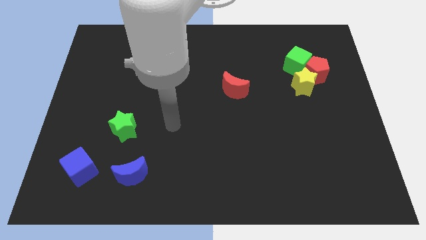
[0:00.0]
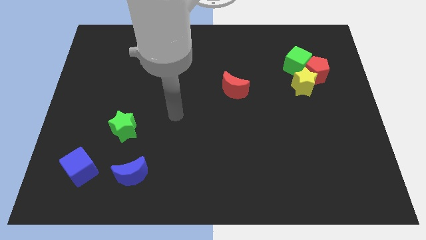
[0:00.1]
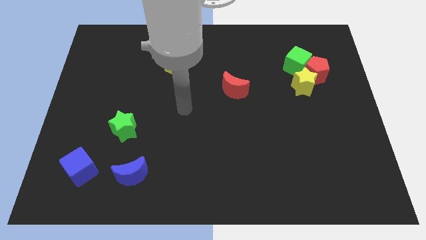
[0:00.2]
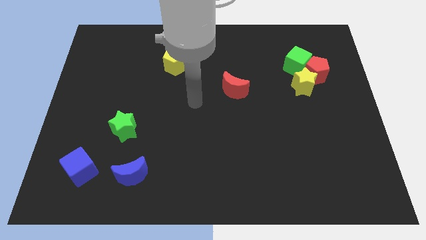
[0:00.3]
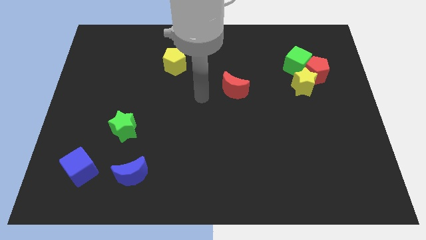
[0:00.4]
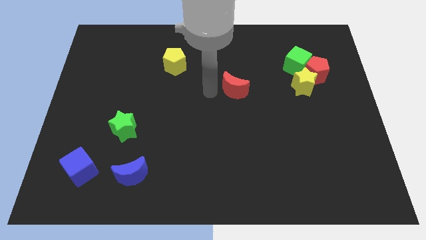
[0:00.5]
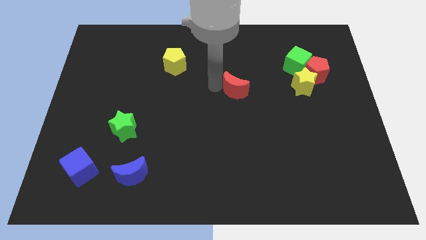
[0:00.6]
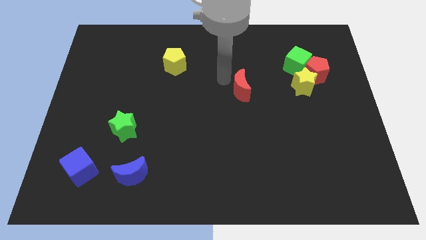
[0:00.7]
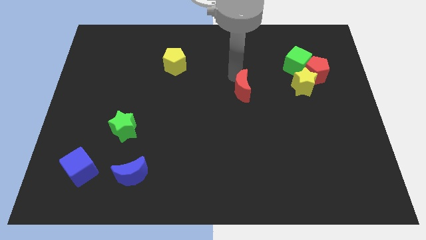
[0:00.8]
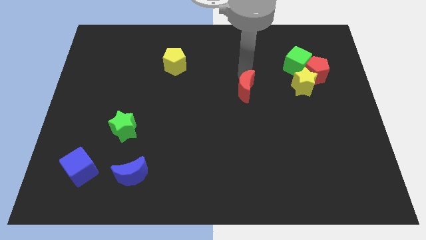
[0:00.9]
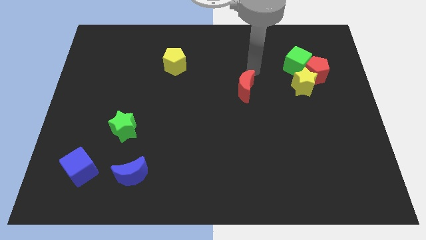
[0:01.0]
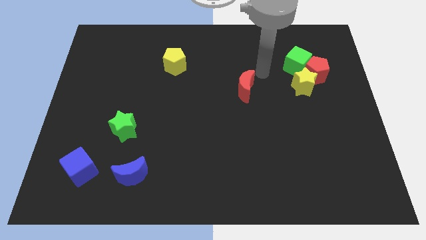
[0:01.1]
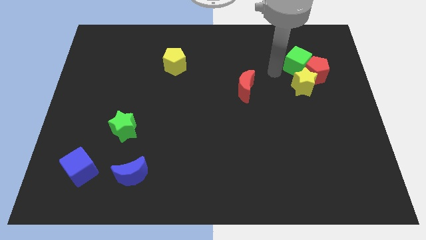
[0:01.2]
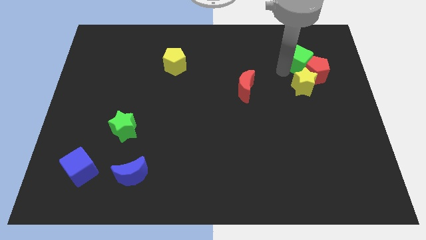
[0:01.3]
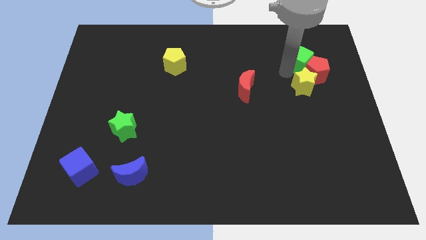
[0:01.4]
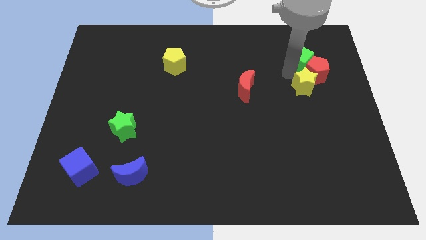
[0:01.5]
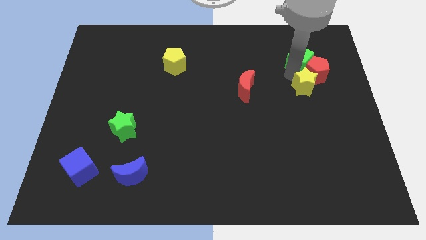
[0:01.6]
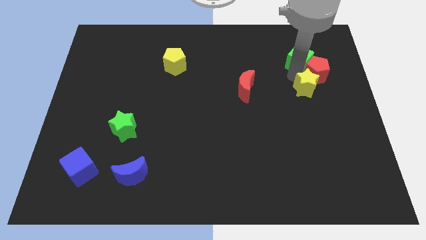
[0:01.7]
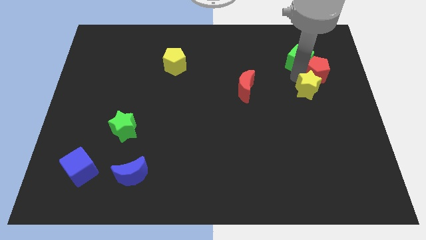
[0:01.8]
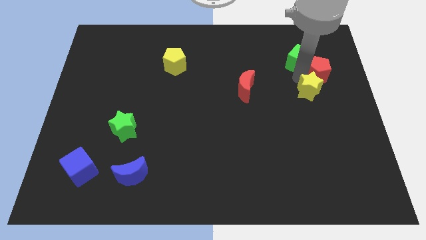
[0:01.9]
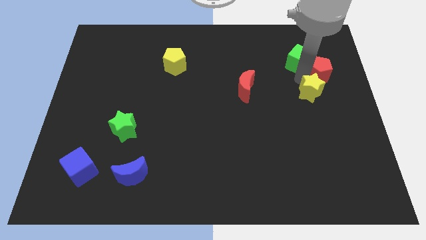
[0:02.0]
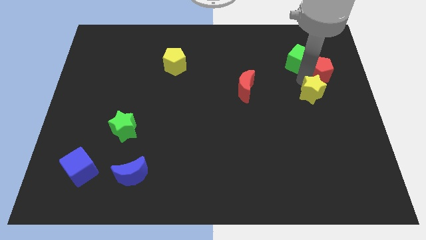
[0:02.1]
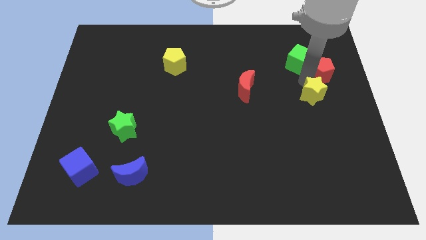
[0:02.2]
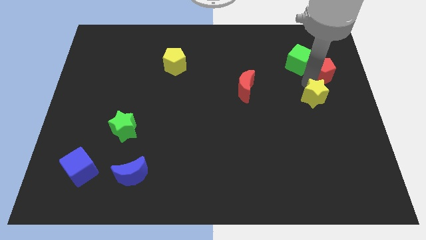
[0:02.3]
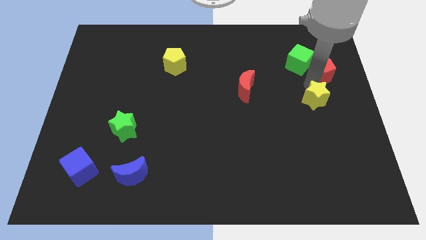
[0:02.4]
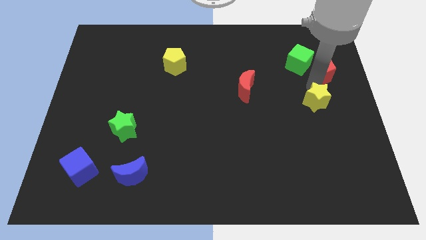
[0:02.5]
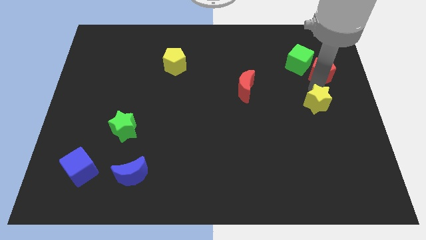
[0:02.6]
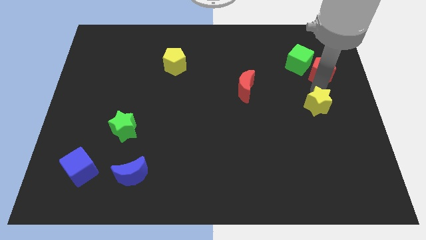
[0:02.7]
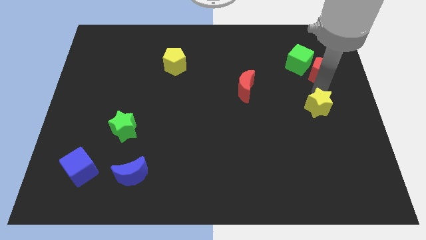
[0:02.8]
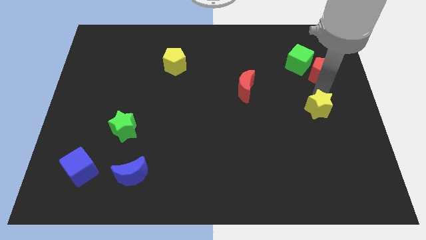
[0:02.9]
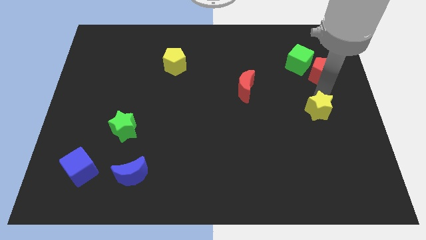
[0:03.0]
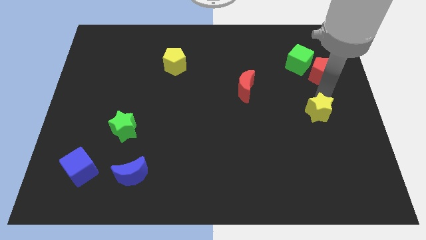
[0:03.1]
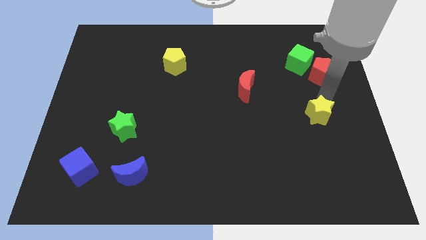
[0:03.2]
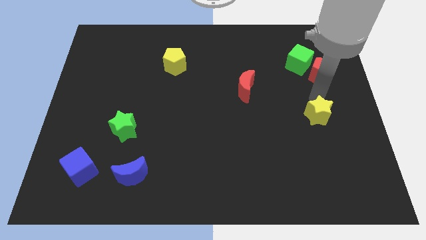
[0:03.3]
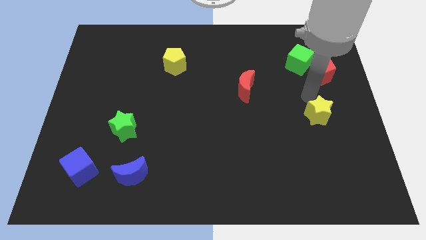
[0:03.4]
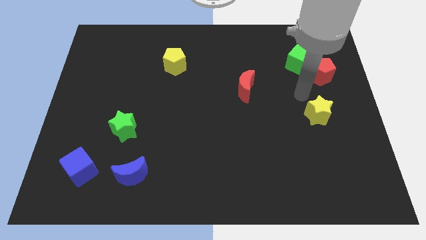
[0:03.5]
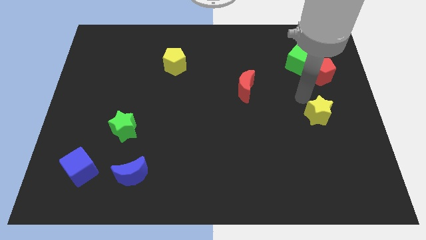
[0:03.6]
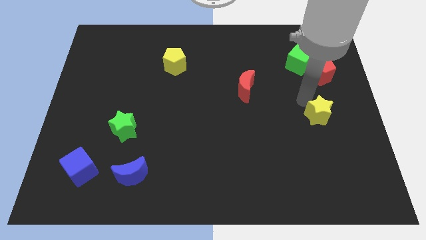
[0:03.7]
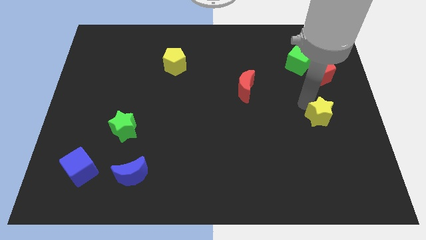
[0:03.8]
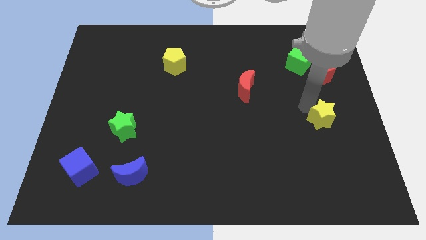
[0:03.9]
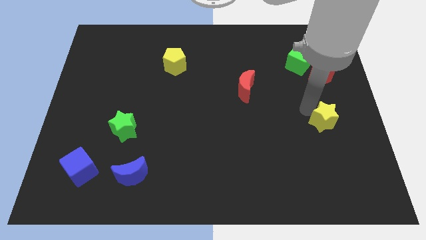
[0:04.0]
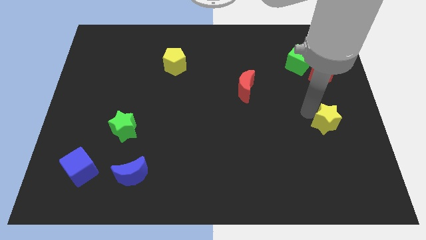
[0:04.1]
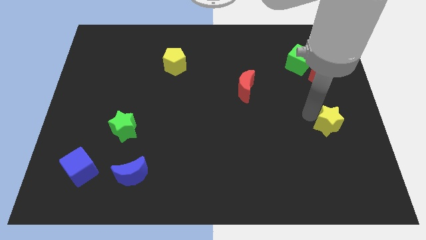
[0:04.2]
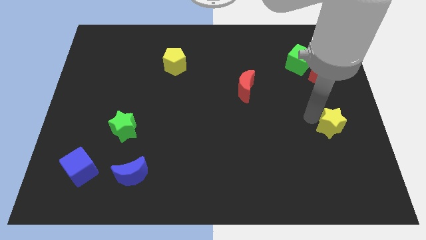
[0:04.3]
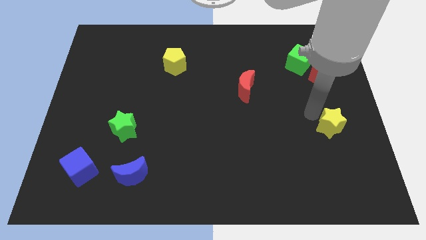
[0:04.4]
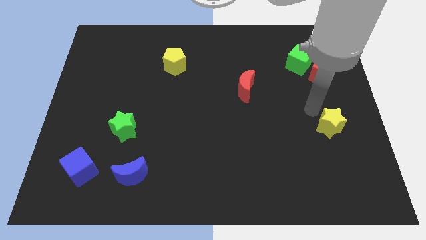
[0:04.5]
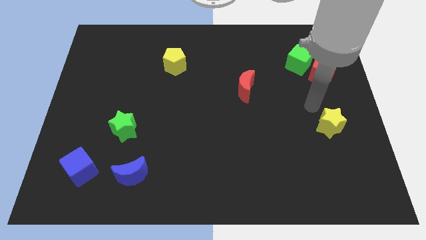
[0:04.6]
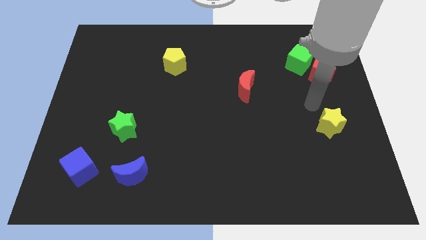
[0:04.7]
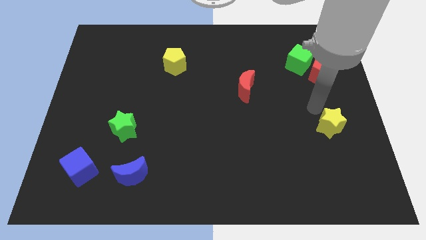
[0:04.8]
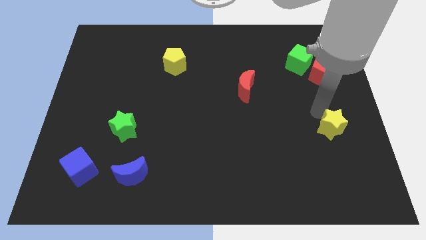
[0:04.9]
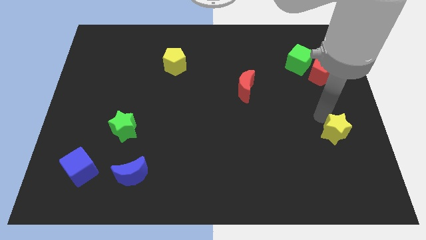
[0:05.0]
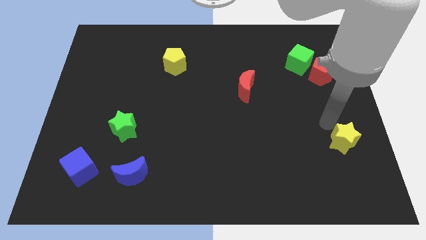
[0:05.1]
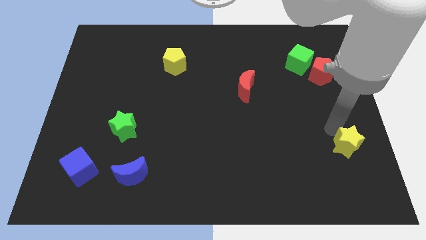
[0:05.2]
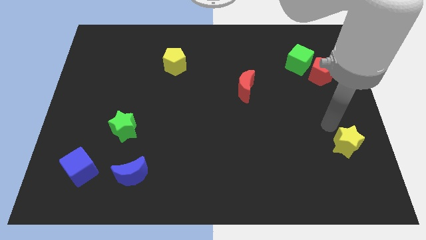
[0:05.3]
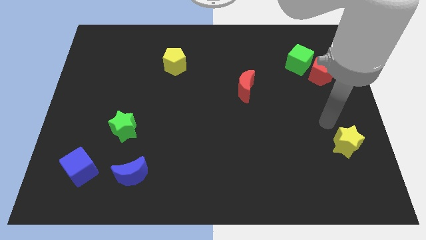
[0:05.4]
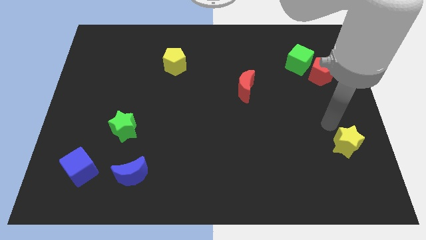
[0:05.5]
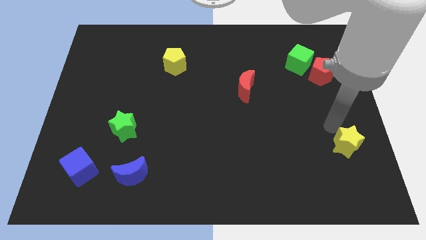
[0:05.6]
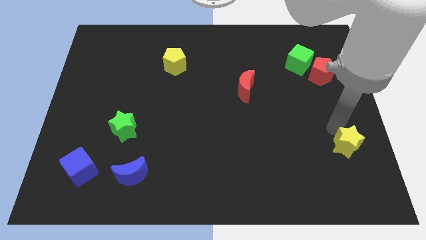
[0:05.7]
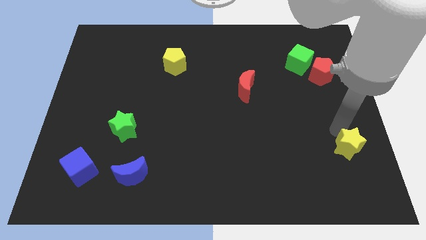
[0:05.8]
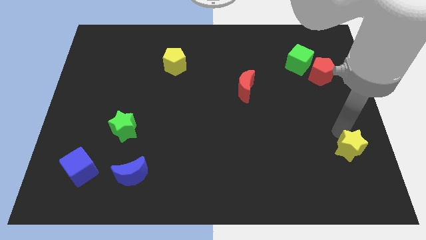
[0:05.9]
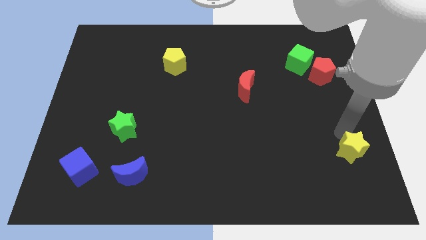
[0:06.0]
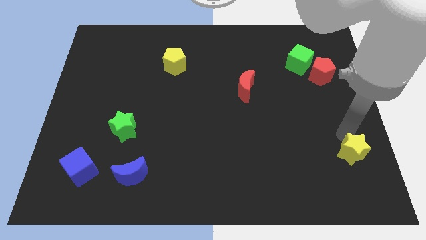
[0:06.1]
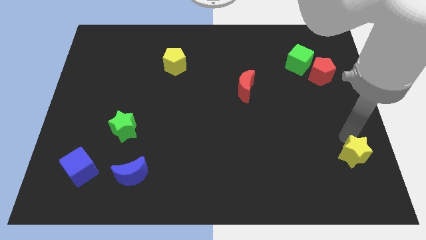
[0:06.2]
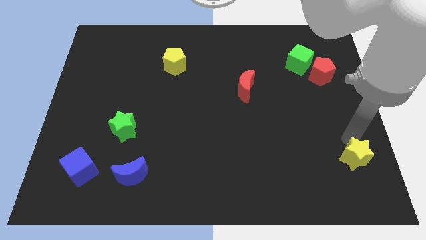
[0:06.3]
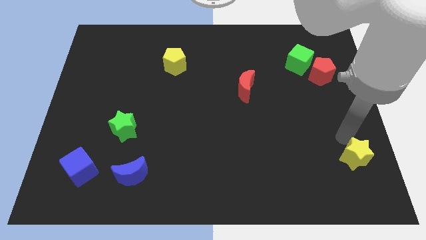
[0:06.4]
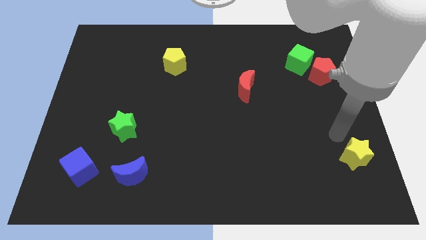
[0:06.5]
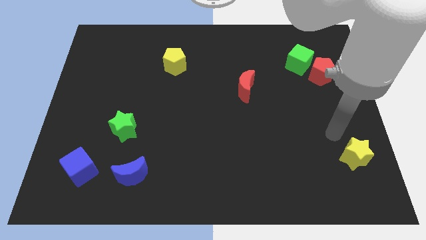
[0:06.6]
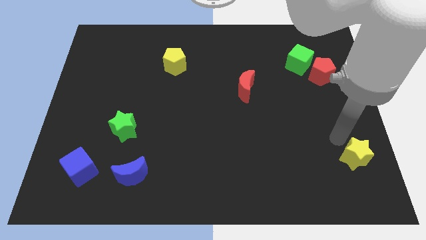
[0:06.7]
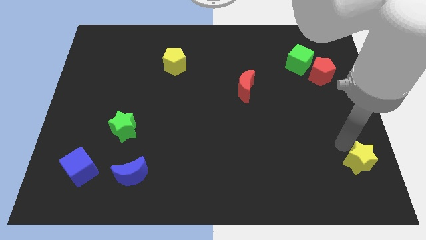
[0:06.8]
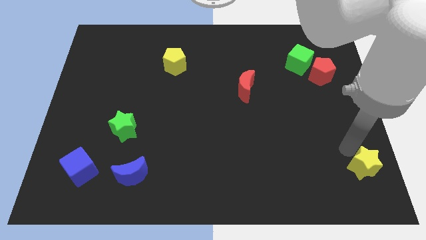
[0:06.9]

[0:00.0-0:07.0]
put the yellow star to the bottom right corner

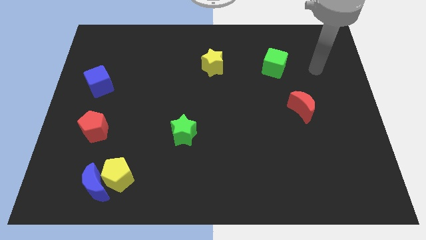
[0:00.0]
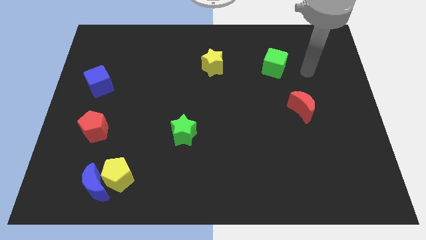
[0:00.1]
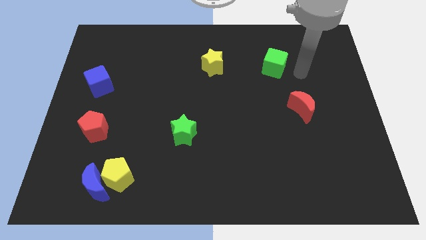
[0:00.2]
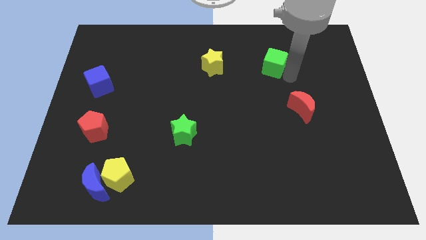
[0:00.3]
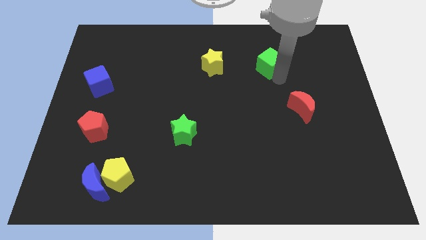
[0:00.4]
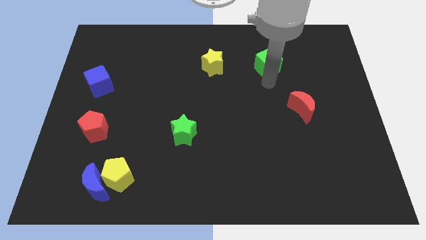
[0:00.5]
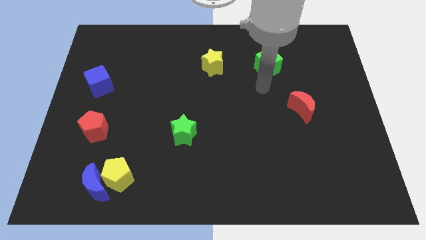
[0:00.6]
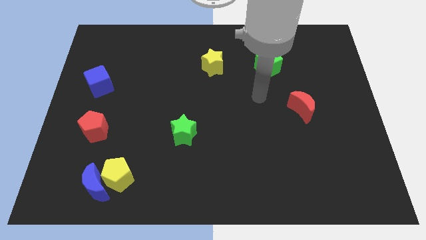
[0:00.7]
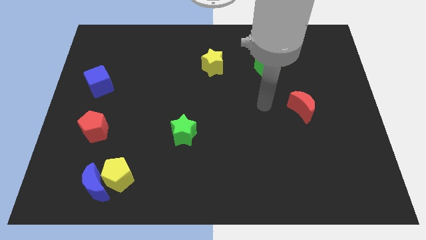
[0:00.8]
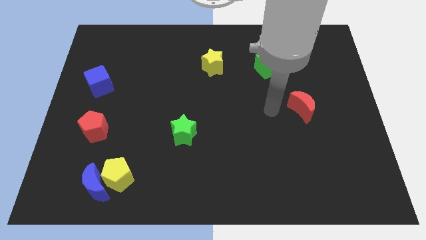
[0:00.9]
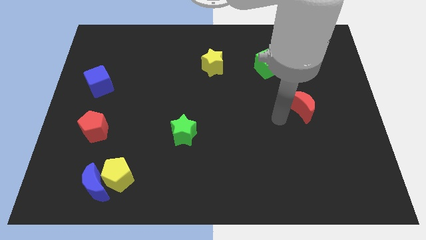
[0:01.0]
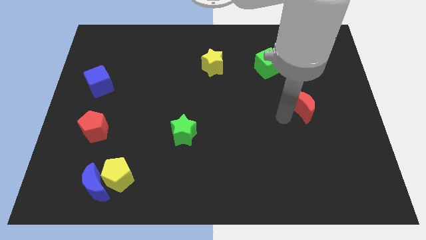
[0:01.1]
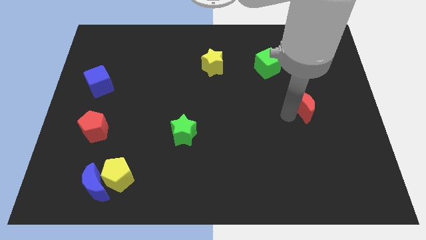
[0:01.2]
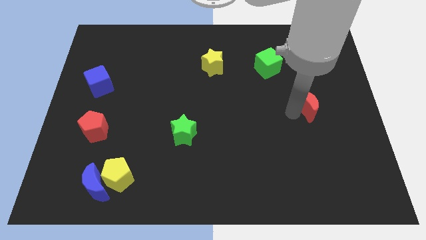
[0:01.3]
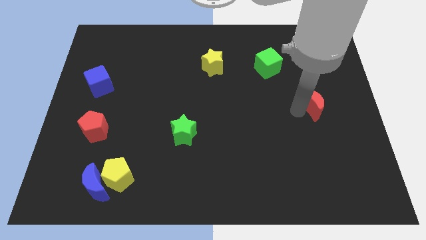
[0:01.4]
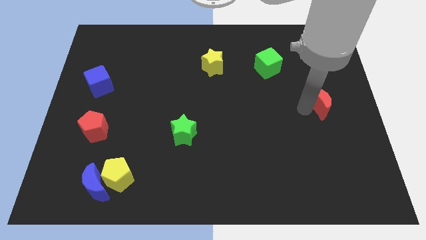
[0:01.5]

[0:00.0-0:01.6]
slide the red moon to the center right
